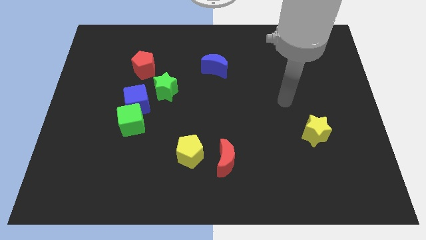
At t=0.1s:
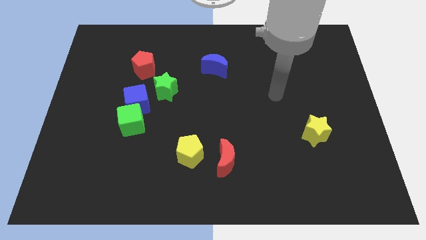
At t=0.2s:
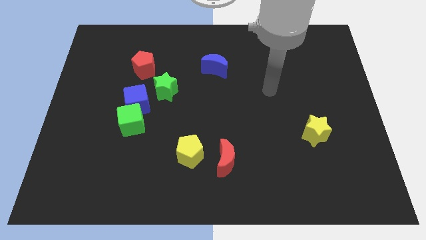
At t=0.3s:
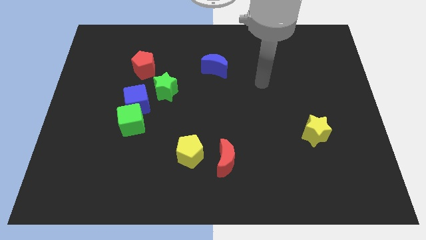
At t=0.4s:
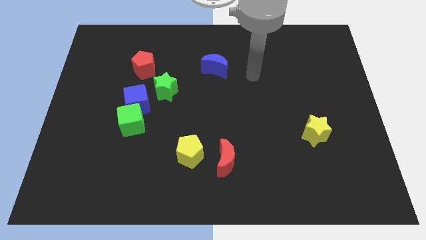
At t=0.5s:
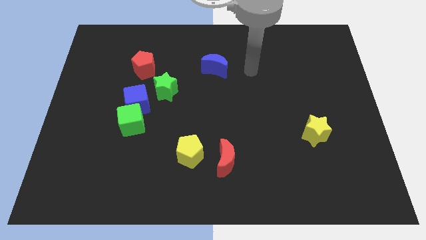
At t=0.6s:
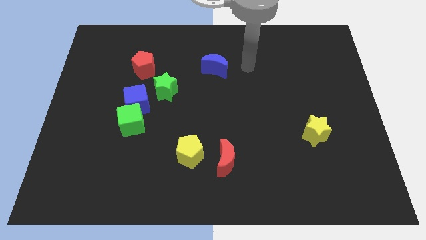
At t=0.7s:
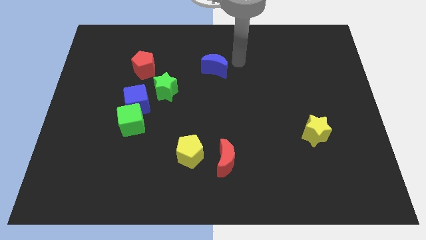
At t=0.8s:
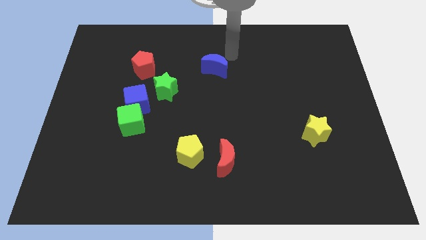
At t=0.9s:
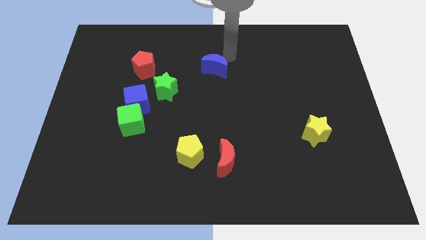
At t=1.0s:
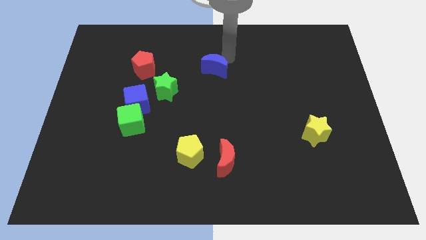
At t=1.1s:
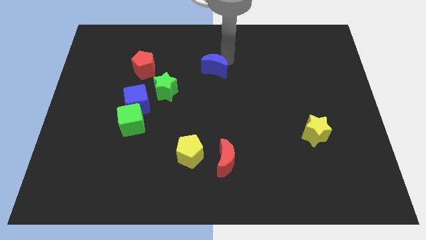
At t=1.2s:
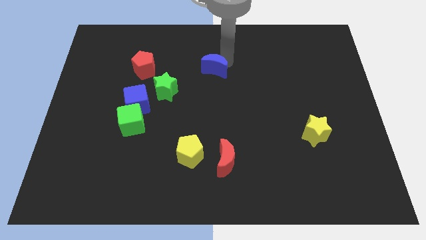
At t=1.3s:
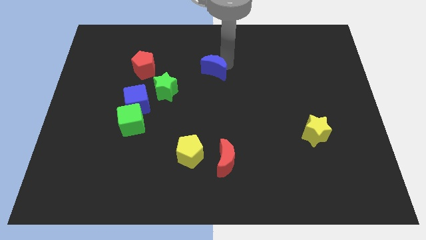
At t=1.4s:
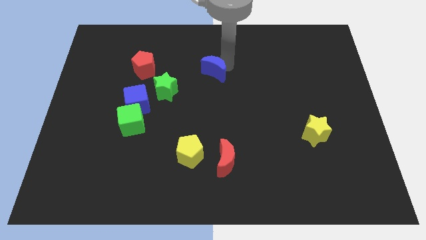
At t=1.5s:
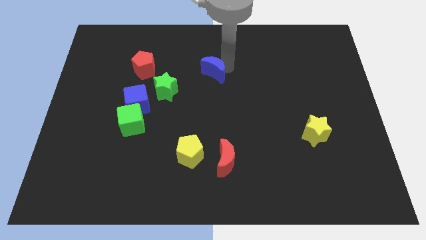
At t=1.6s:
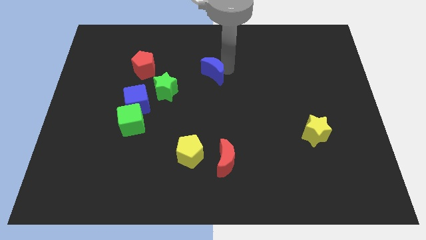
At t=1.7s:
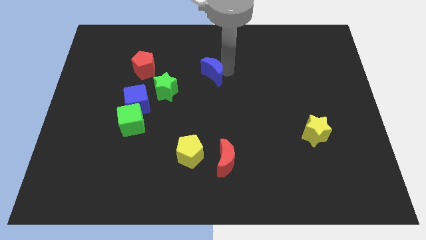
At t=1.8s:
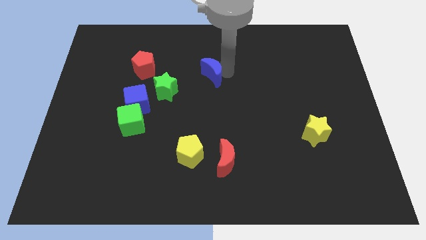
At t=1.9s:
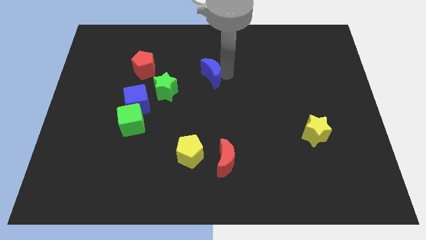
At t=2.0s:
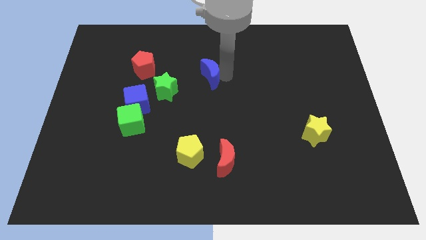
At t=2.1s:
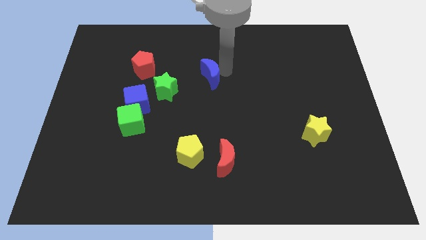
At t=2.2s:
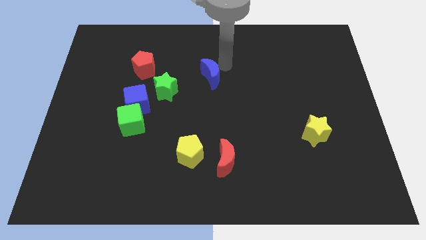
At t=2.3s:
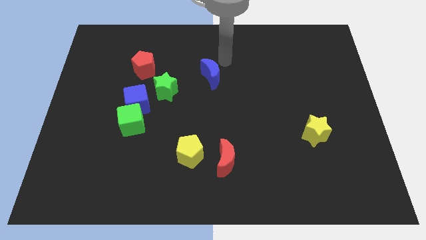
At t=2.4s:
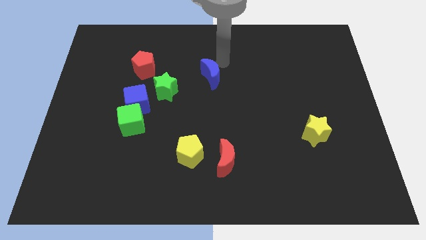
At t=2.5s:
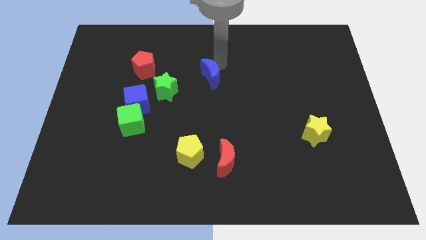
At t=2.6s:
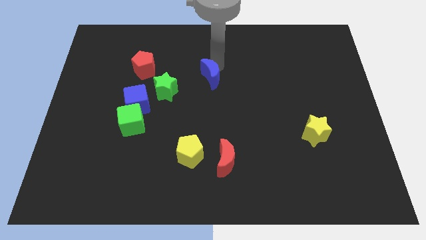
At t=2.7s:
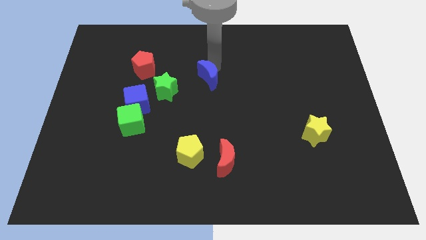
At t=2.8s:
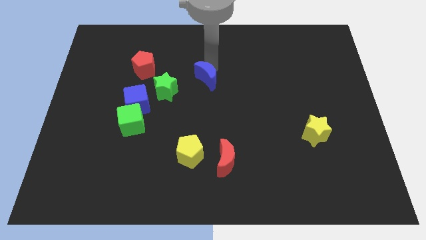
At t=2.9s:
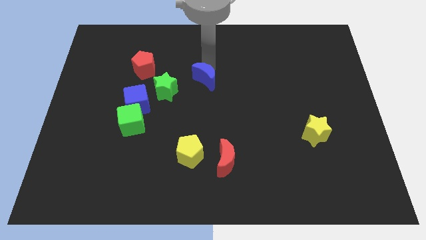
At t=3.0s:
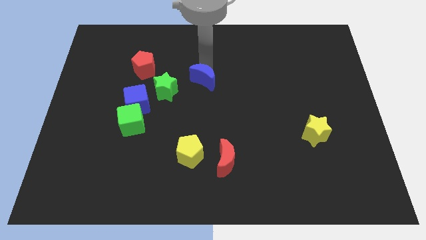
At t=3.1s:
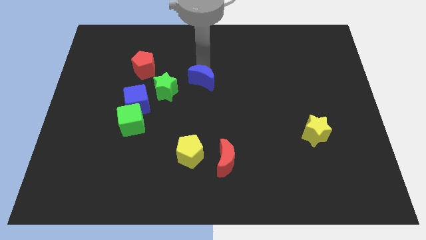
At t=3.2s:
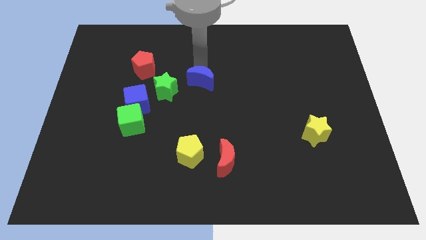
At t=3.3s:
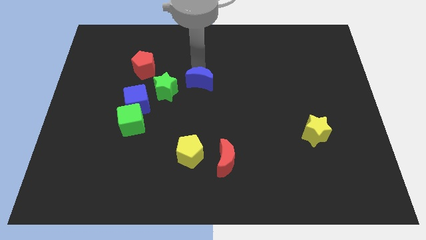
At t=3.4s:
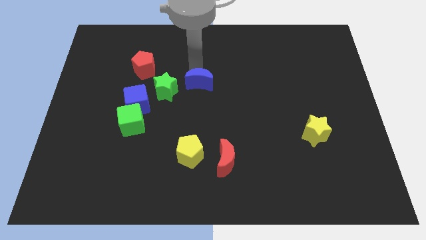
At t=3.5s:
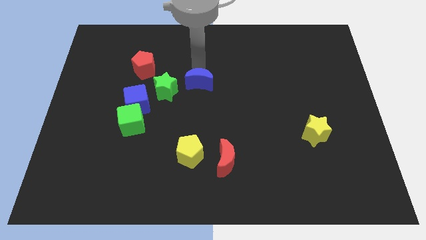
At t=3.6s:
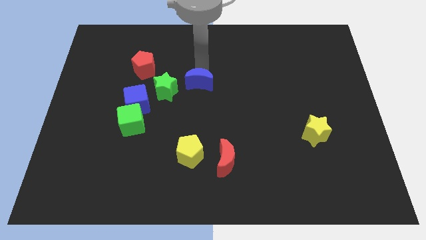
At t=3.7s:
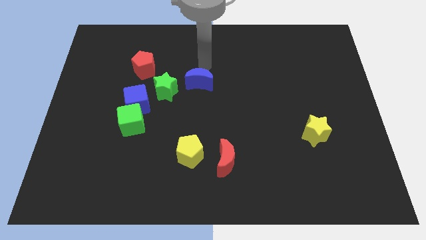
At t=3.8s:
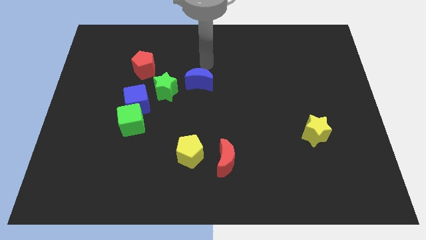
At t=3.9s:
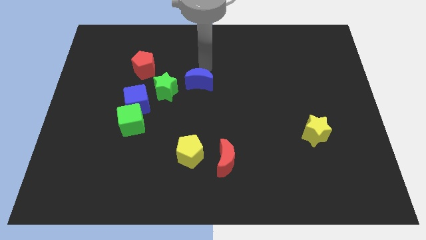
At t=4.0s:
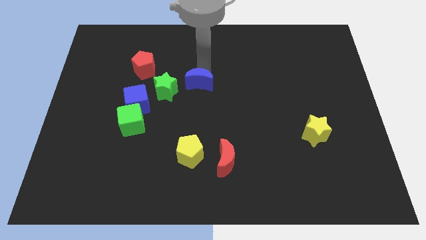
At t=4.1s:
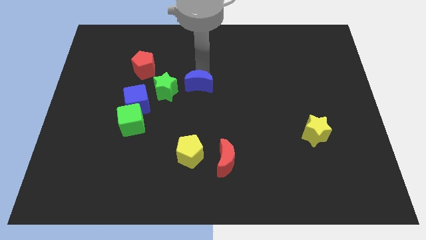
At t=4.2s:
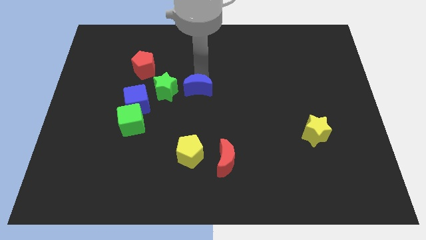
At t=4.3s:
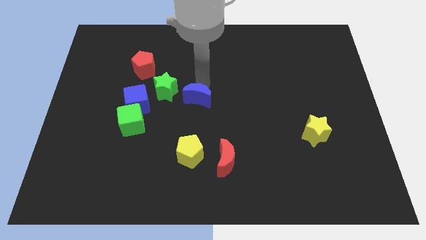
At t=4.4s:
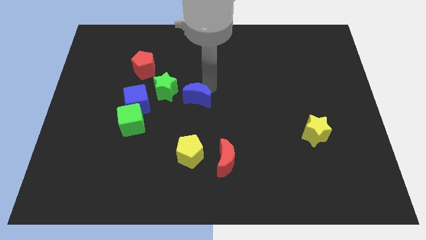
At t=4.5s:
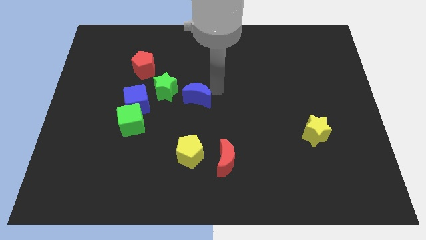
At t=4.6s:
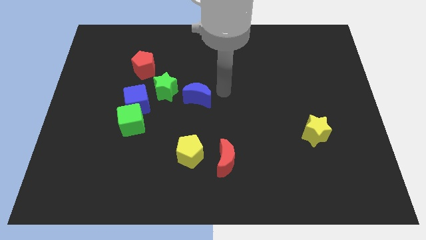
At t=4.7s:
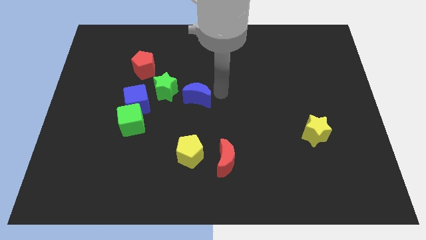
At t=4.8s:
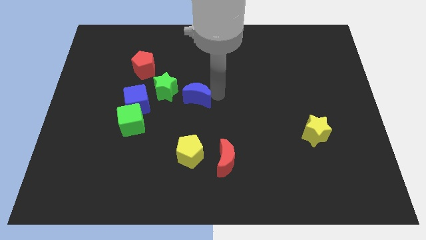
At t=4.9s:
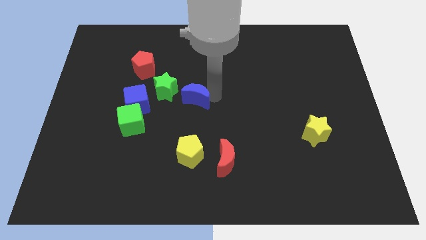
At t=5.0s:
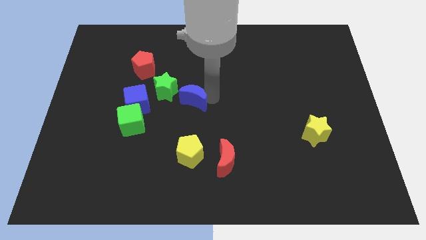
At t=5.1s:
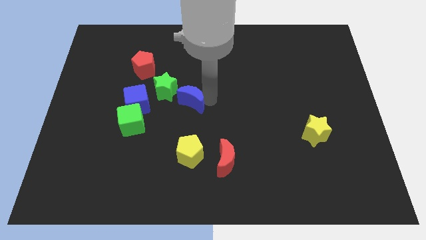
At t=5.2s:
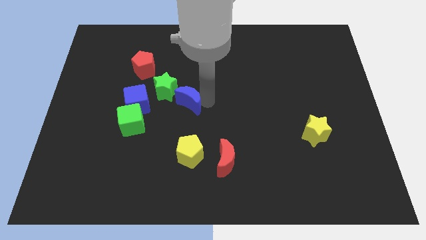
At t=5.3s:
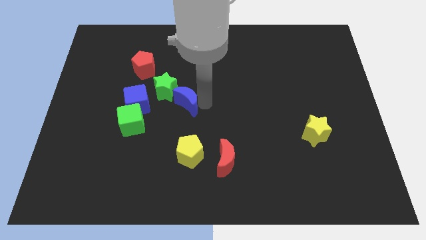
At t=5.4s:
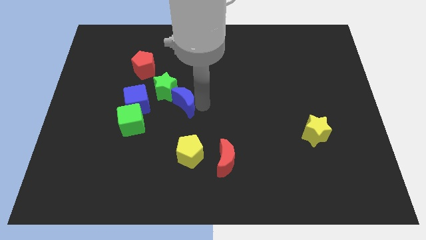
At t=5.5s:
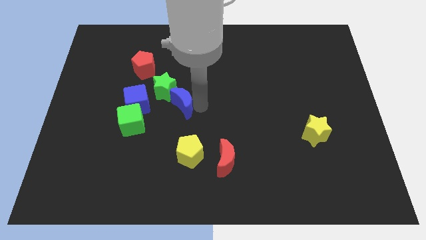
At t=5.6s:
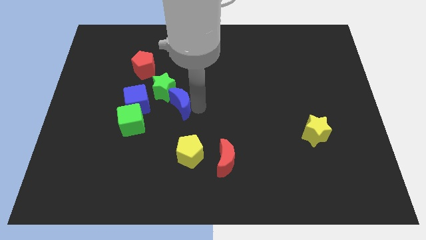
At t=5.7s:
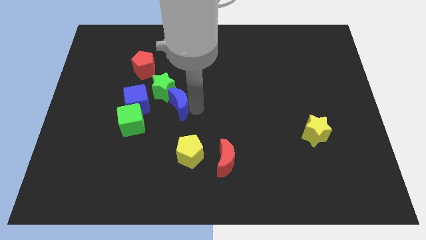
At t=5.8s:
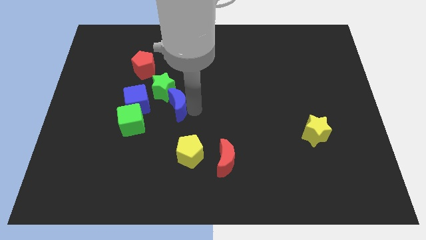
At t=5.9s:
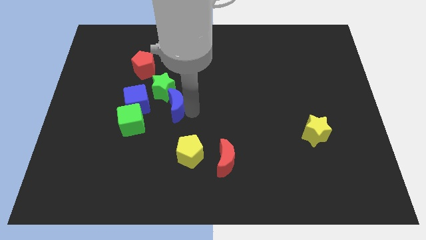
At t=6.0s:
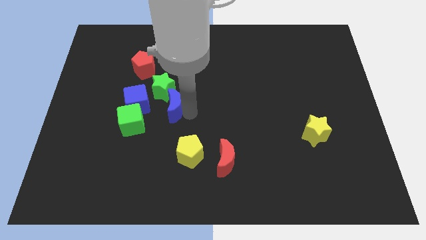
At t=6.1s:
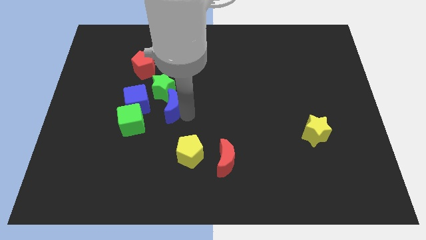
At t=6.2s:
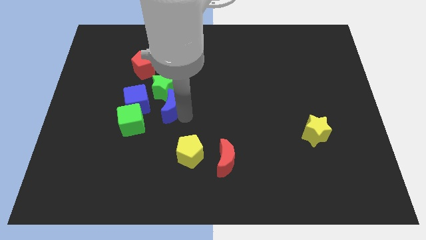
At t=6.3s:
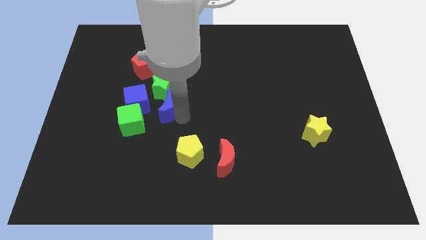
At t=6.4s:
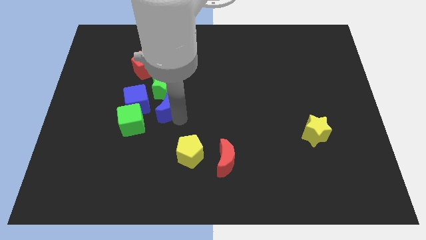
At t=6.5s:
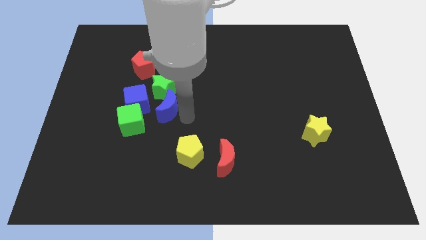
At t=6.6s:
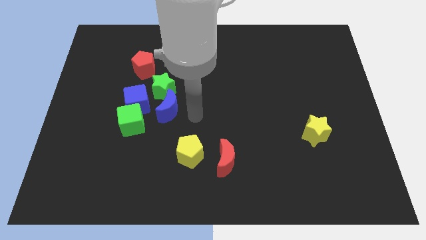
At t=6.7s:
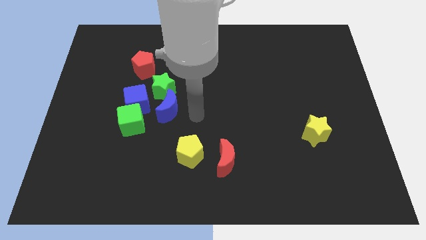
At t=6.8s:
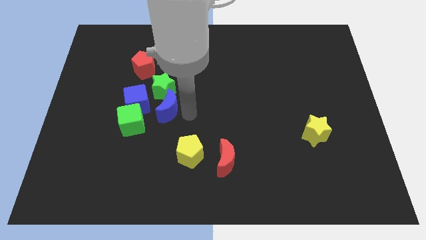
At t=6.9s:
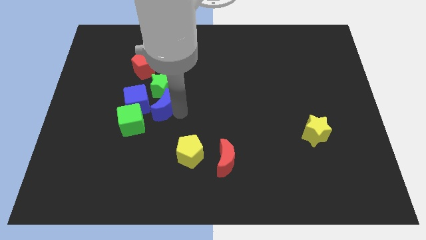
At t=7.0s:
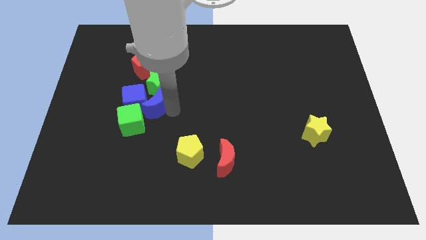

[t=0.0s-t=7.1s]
move the blue moon to the blue cube
